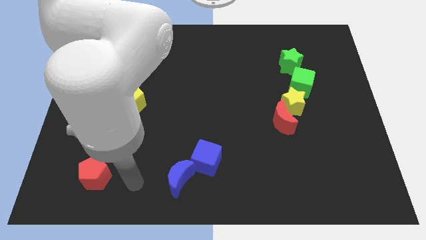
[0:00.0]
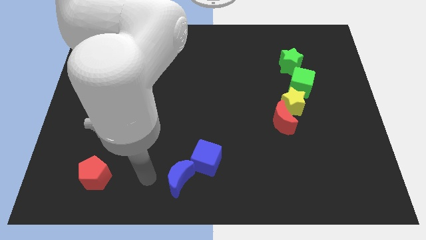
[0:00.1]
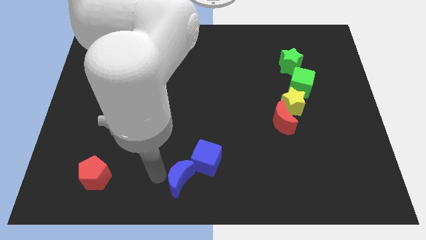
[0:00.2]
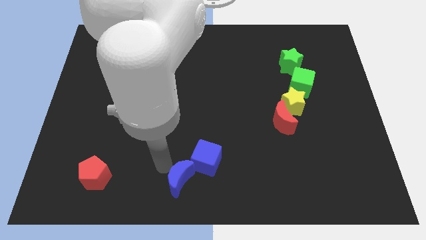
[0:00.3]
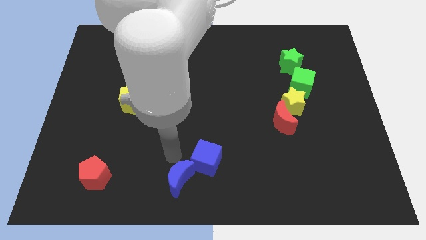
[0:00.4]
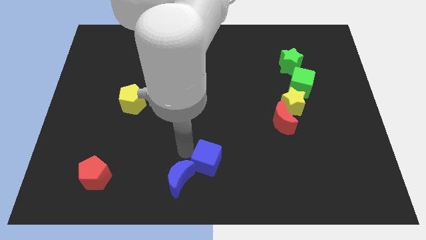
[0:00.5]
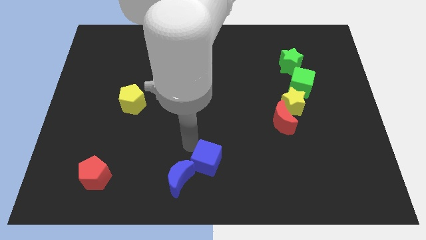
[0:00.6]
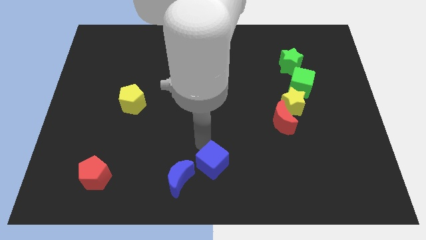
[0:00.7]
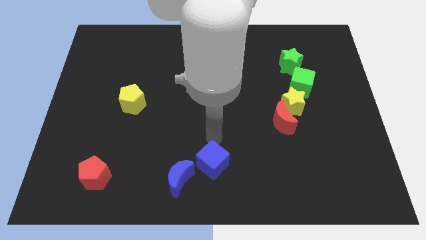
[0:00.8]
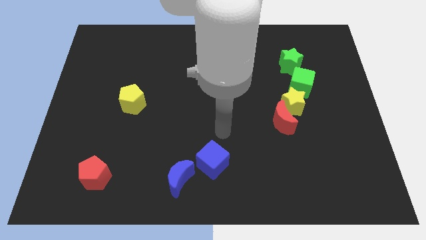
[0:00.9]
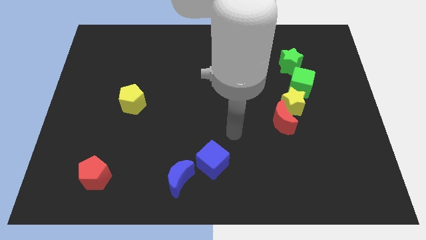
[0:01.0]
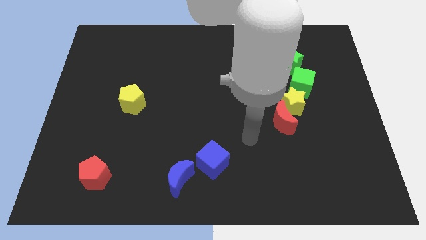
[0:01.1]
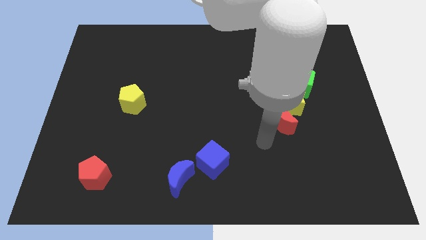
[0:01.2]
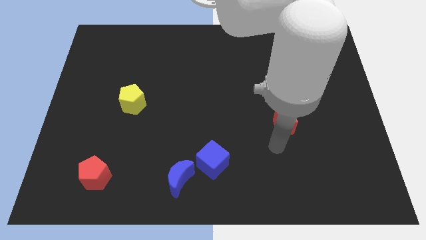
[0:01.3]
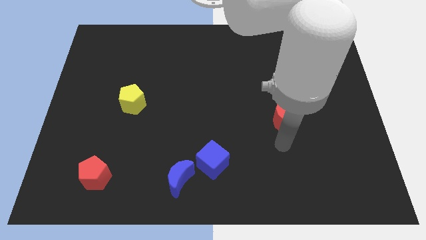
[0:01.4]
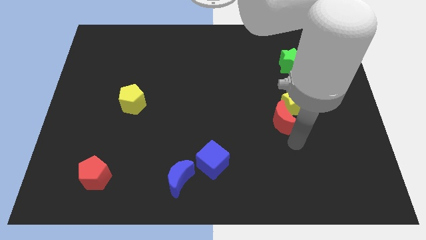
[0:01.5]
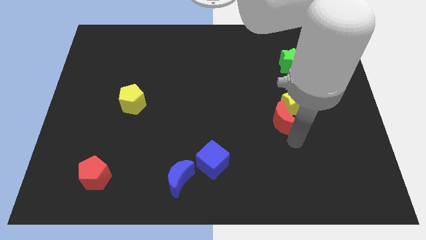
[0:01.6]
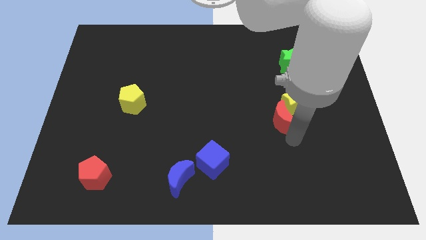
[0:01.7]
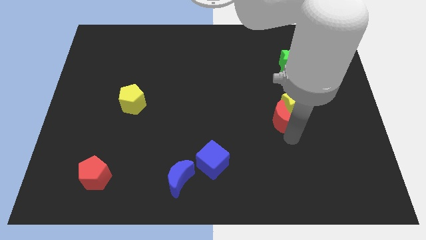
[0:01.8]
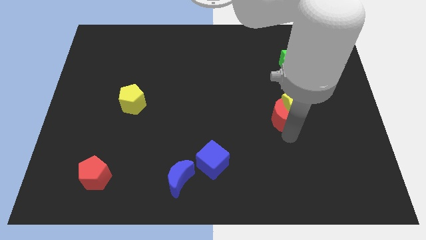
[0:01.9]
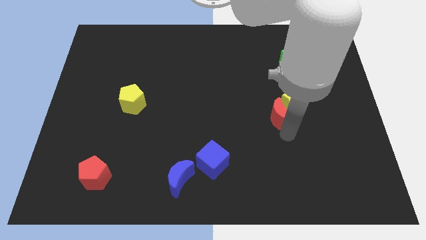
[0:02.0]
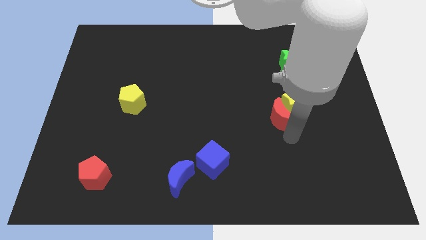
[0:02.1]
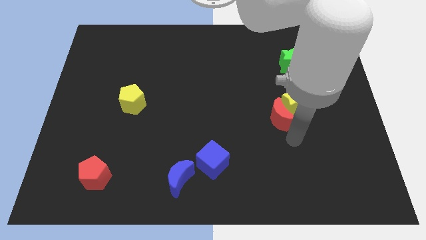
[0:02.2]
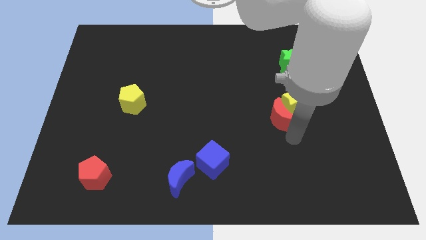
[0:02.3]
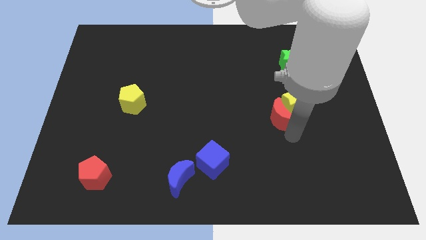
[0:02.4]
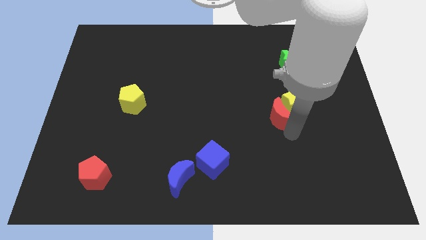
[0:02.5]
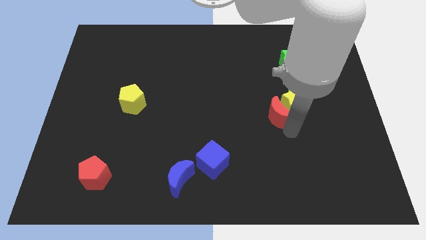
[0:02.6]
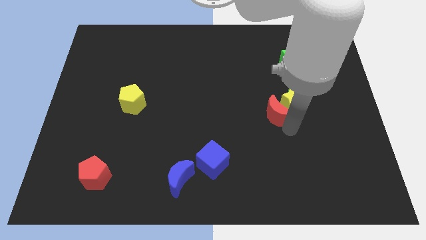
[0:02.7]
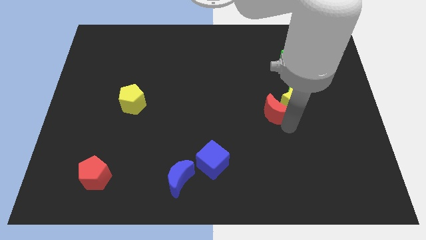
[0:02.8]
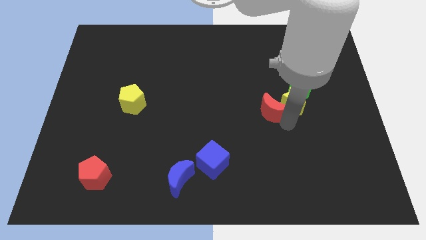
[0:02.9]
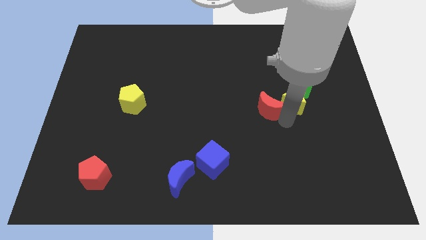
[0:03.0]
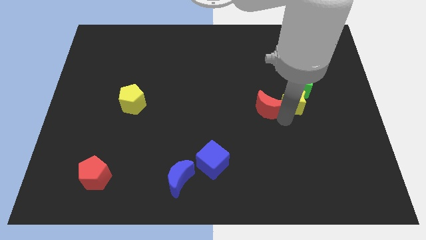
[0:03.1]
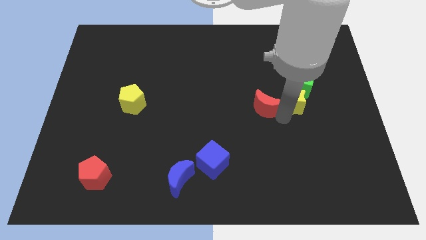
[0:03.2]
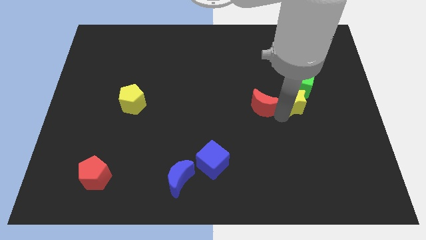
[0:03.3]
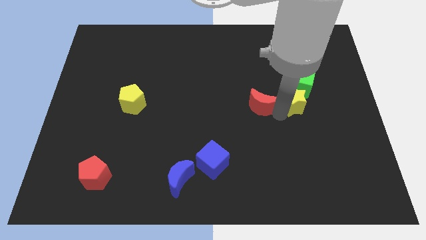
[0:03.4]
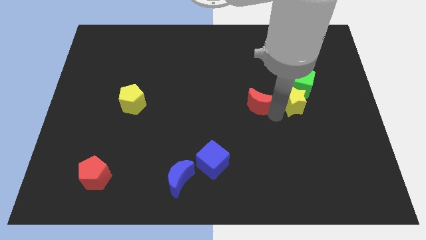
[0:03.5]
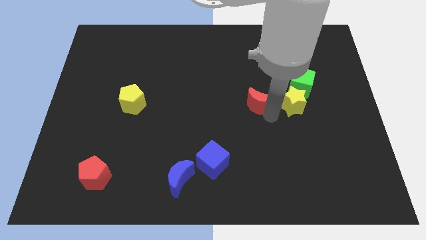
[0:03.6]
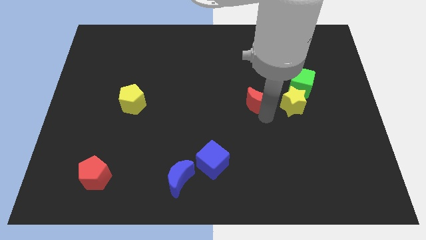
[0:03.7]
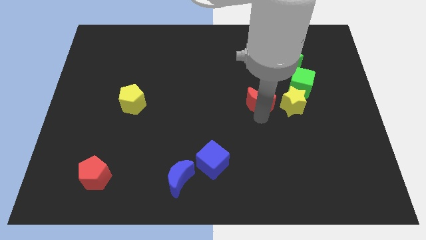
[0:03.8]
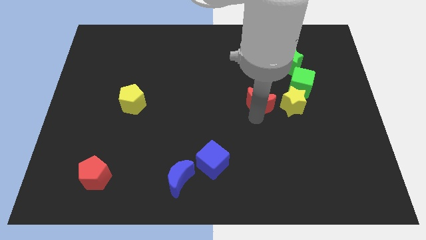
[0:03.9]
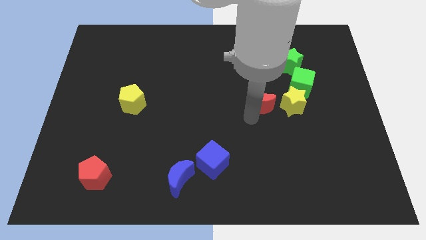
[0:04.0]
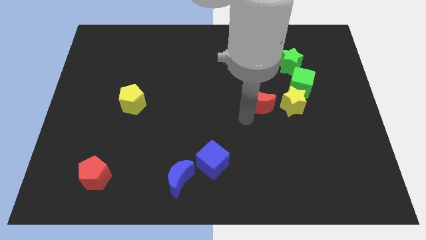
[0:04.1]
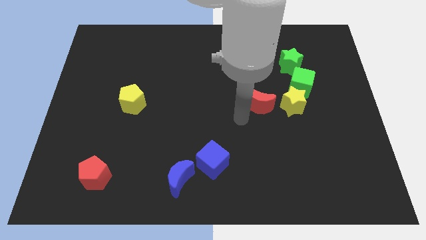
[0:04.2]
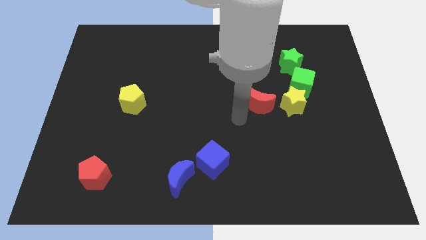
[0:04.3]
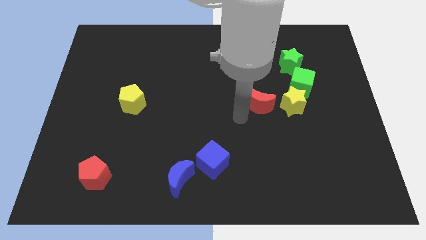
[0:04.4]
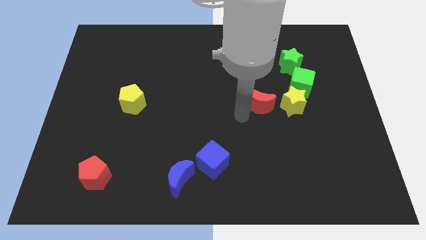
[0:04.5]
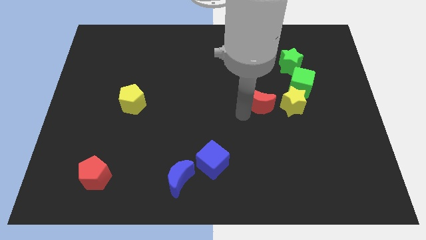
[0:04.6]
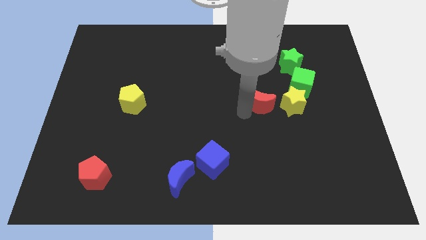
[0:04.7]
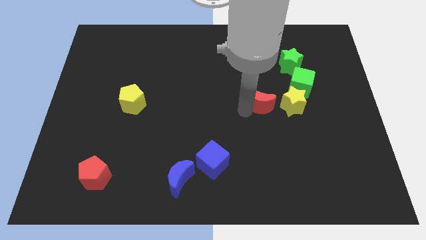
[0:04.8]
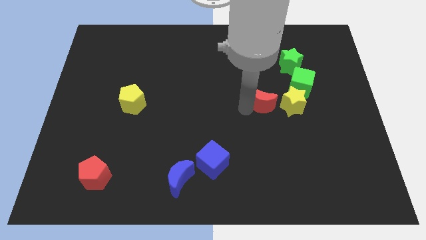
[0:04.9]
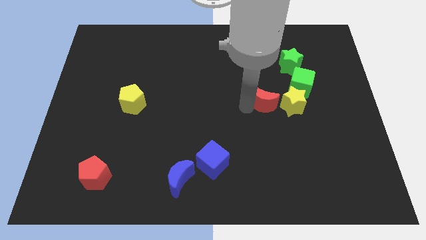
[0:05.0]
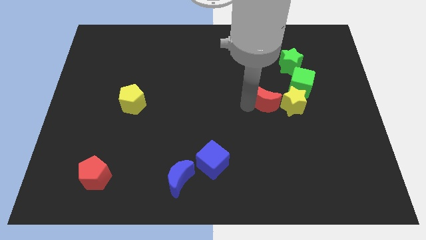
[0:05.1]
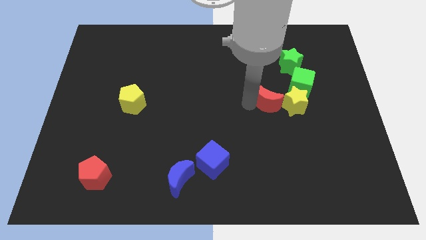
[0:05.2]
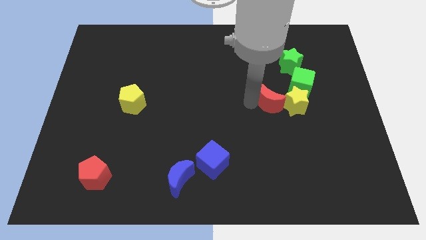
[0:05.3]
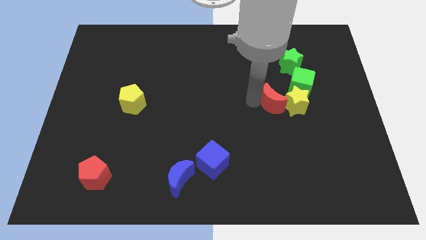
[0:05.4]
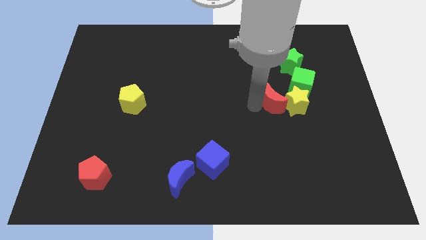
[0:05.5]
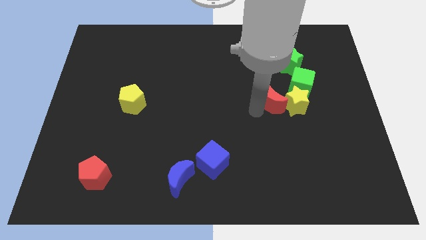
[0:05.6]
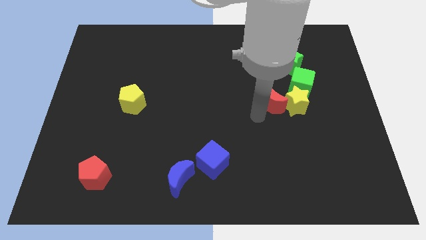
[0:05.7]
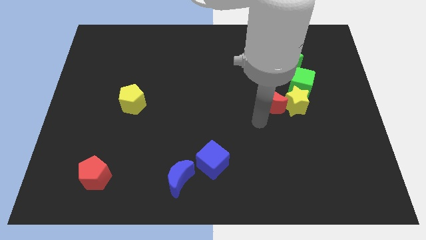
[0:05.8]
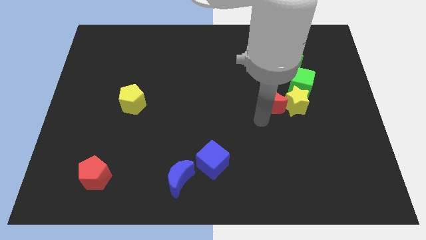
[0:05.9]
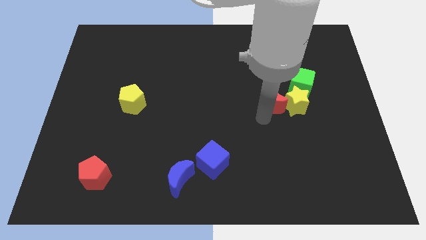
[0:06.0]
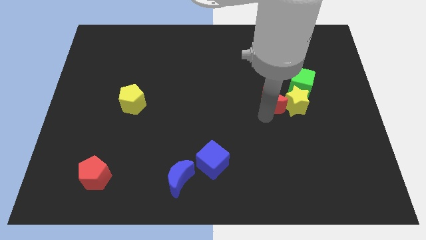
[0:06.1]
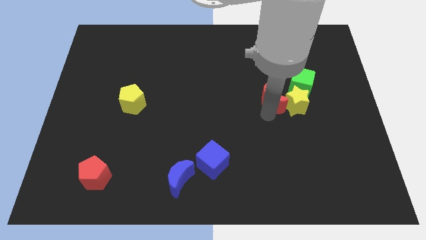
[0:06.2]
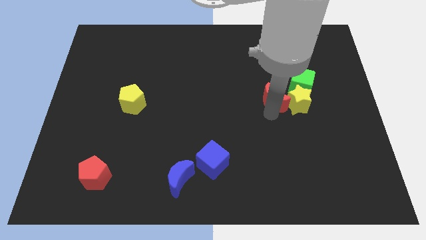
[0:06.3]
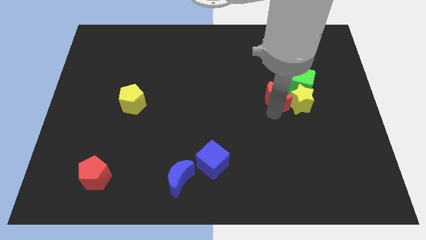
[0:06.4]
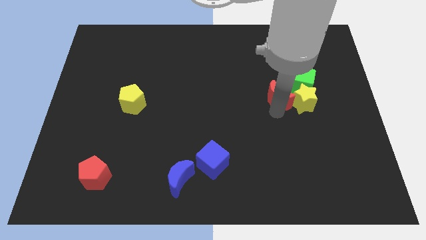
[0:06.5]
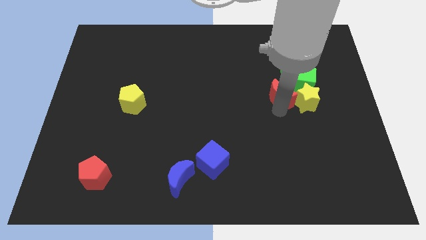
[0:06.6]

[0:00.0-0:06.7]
slide the red moon slightly up

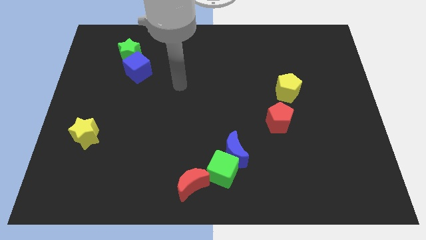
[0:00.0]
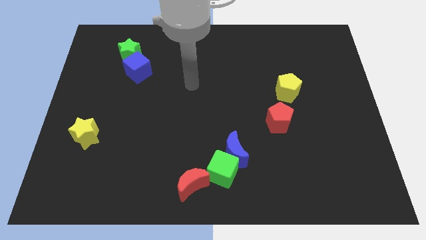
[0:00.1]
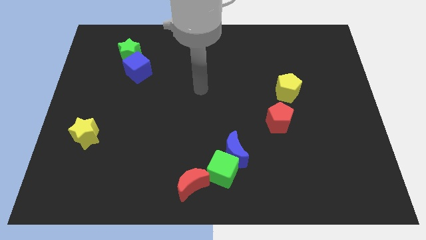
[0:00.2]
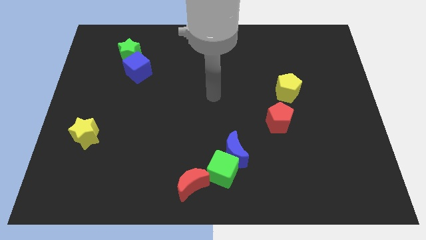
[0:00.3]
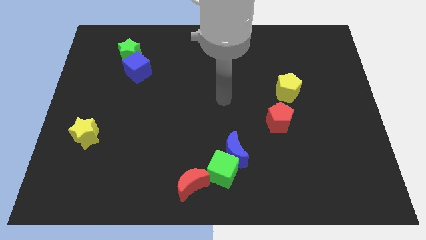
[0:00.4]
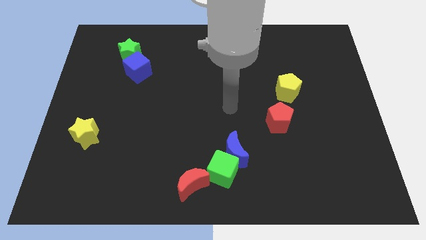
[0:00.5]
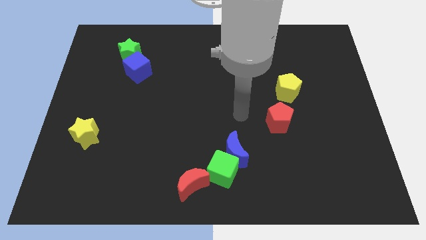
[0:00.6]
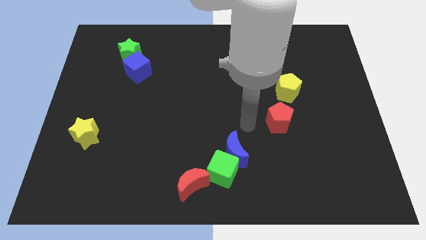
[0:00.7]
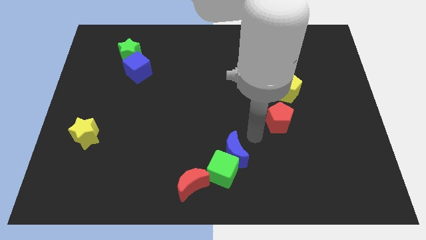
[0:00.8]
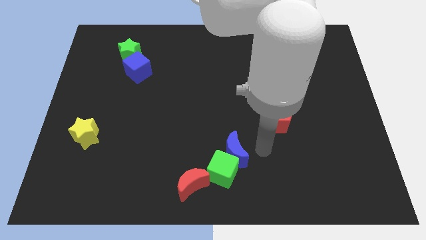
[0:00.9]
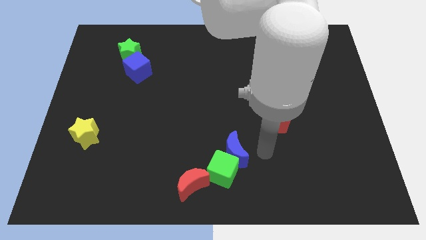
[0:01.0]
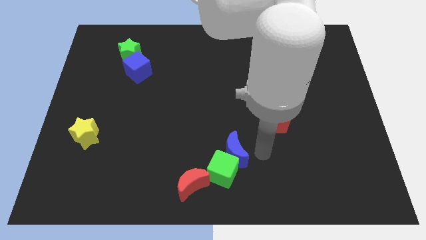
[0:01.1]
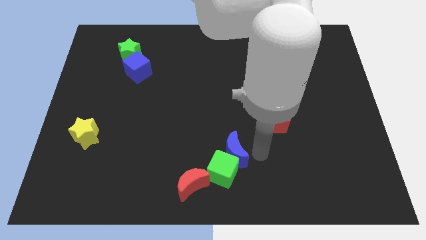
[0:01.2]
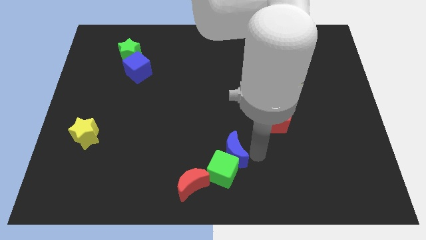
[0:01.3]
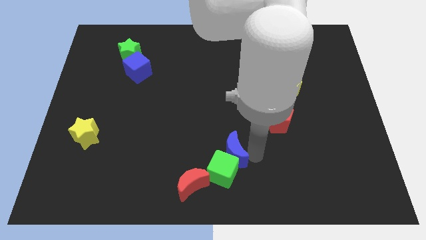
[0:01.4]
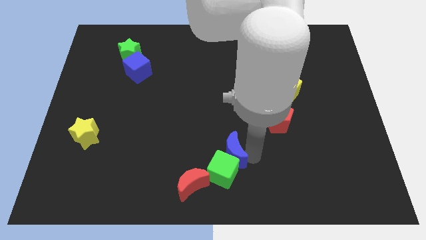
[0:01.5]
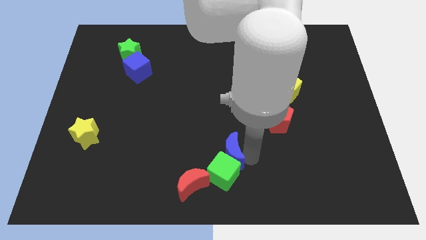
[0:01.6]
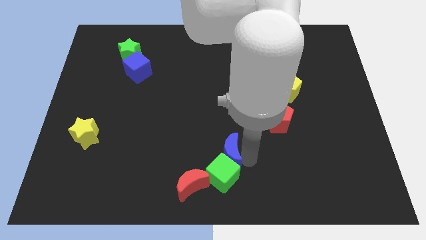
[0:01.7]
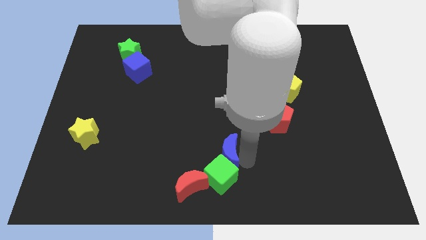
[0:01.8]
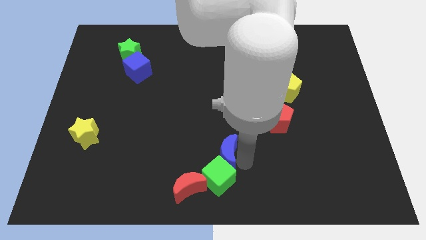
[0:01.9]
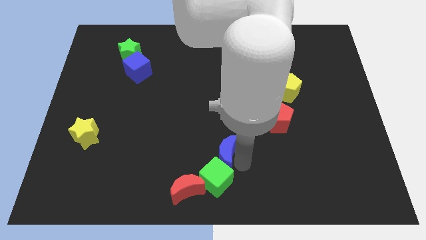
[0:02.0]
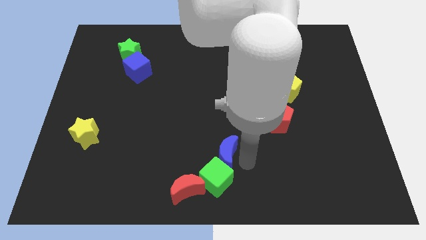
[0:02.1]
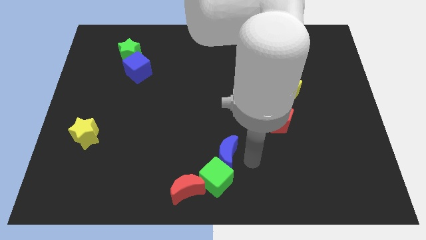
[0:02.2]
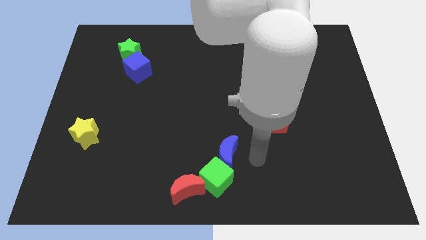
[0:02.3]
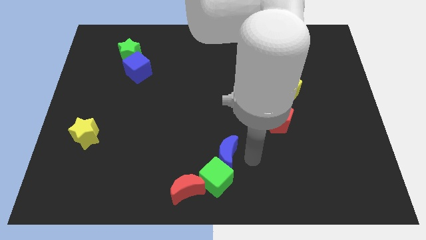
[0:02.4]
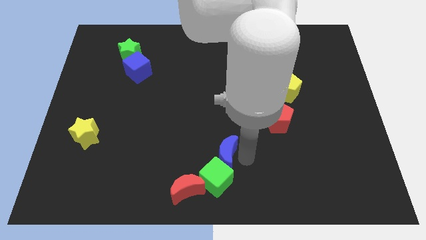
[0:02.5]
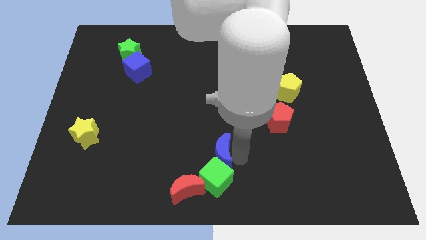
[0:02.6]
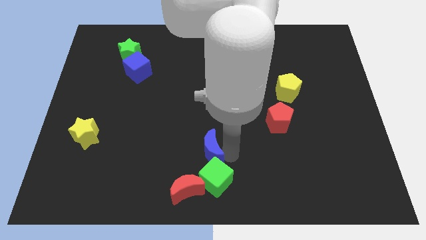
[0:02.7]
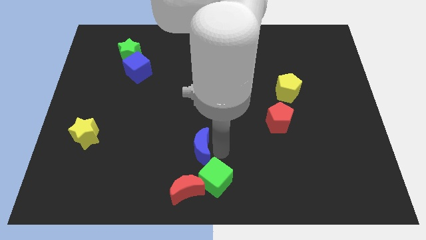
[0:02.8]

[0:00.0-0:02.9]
move the blue moon left somewhat
